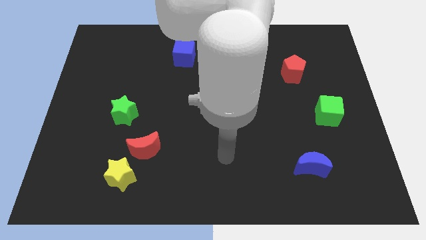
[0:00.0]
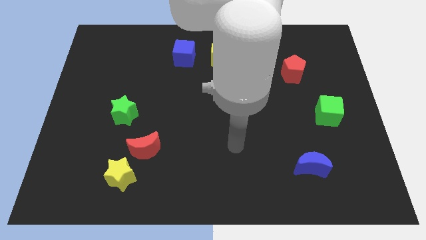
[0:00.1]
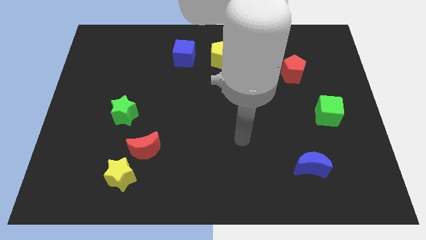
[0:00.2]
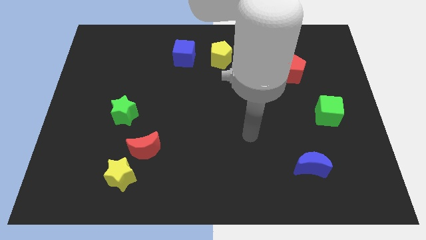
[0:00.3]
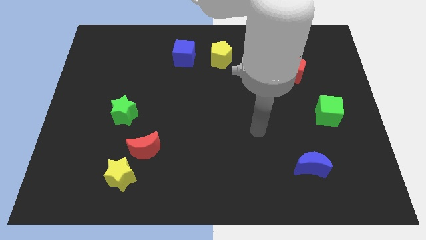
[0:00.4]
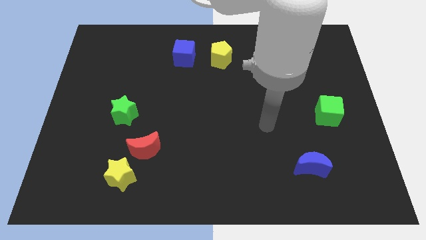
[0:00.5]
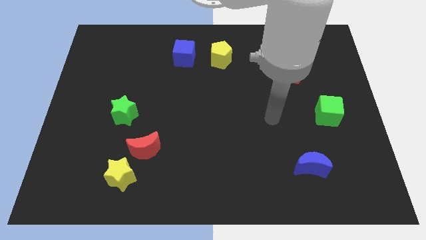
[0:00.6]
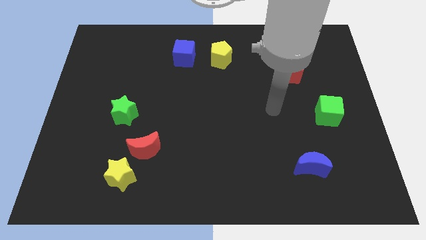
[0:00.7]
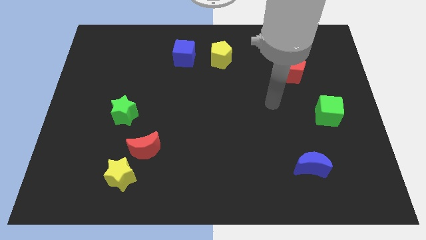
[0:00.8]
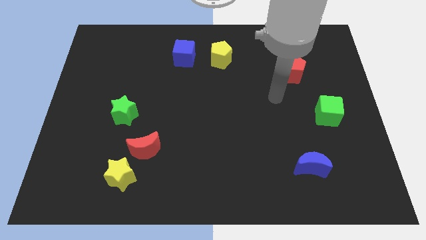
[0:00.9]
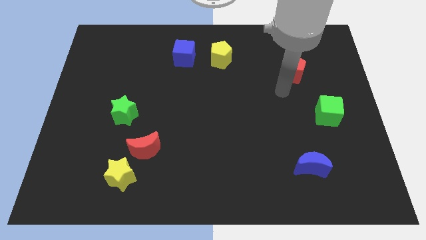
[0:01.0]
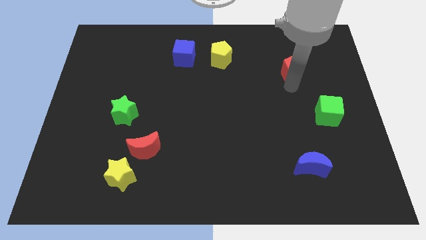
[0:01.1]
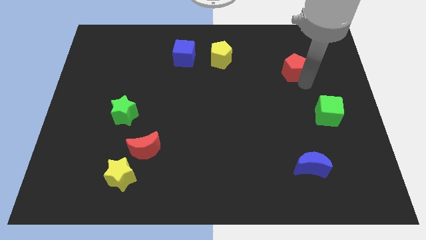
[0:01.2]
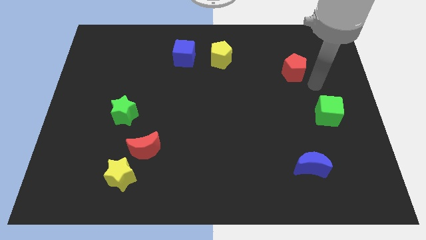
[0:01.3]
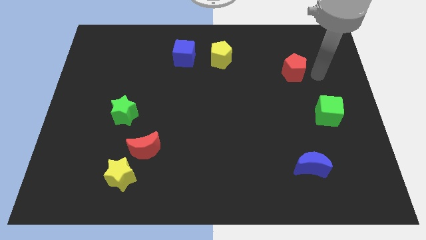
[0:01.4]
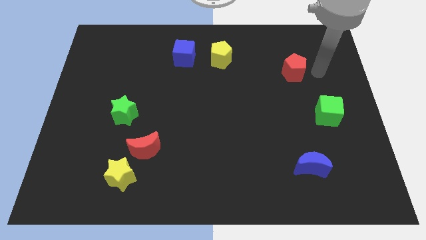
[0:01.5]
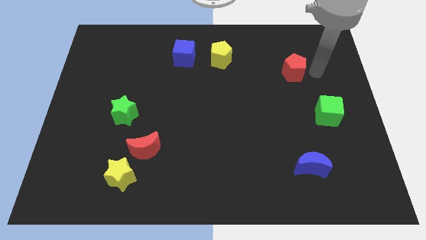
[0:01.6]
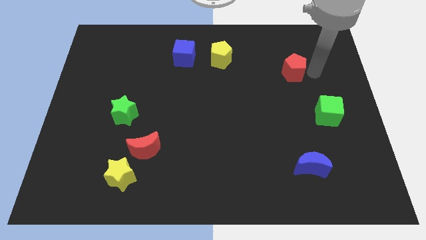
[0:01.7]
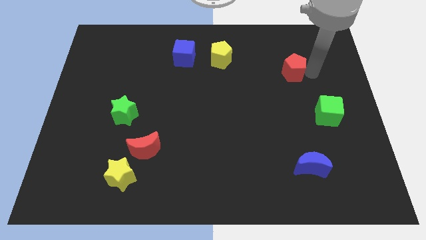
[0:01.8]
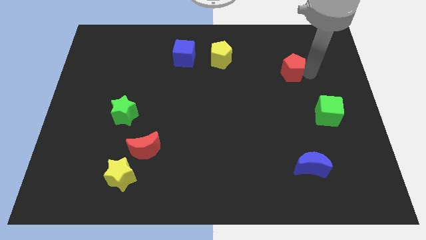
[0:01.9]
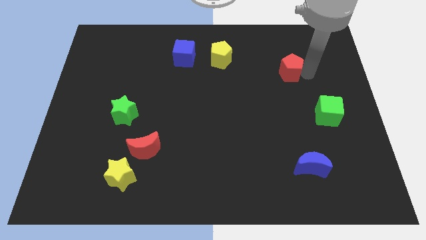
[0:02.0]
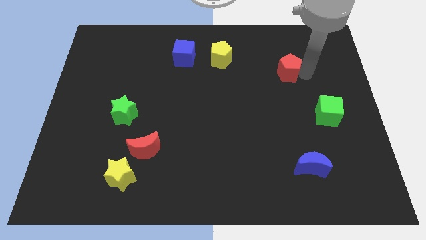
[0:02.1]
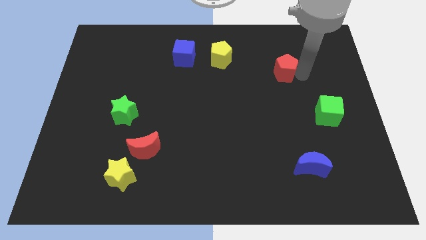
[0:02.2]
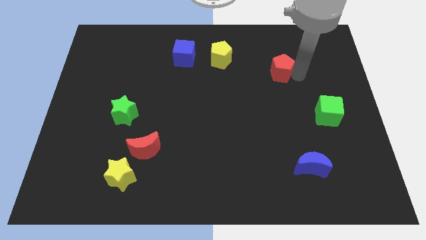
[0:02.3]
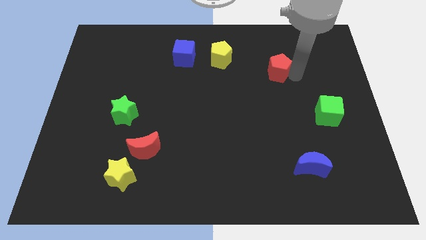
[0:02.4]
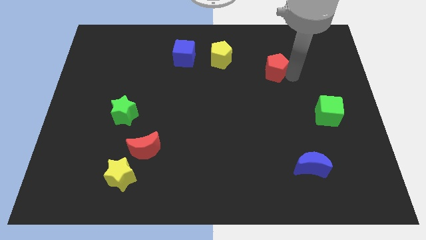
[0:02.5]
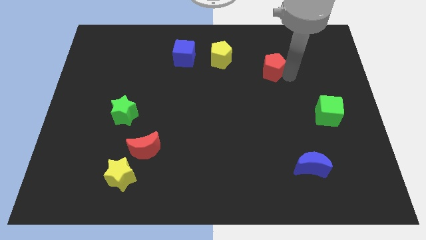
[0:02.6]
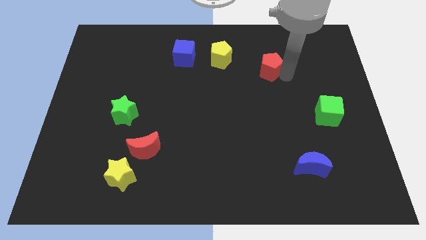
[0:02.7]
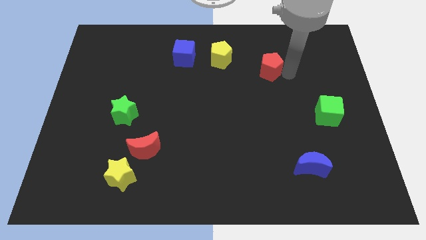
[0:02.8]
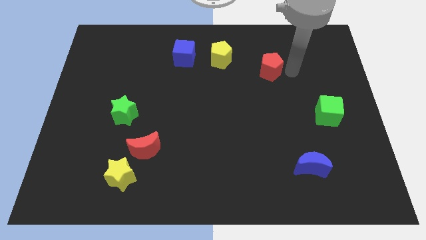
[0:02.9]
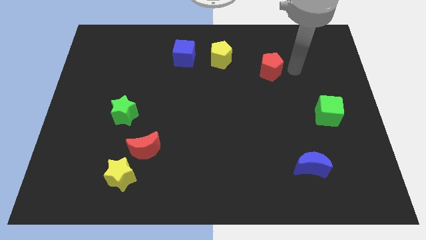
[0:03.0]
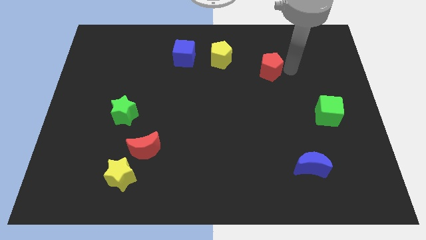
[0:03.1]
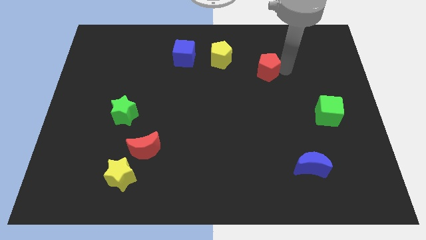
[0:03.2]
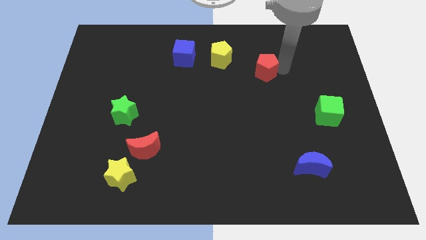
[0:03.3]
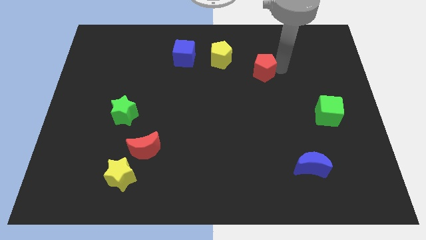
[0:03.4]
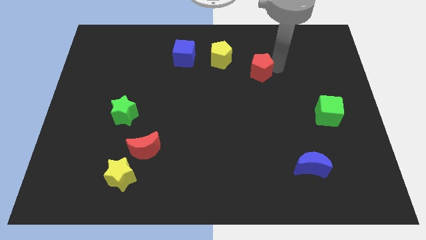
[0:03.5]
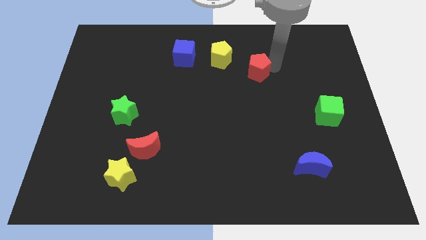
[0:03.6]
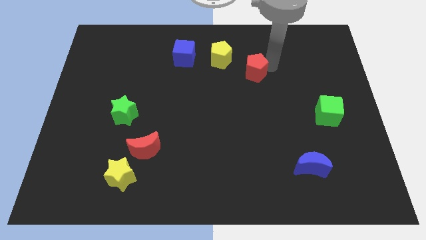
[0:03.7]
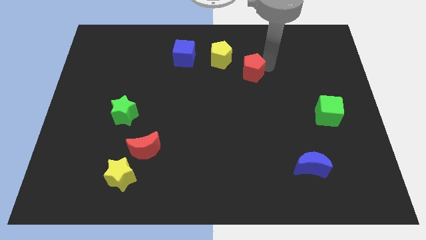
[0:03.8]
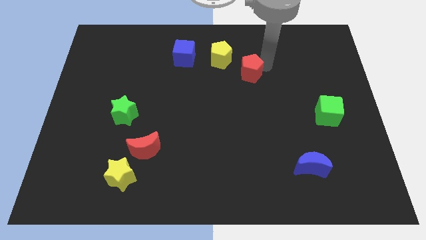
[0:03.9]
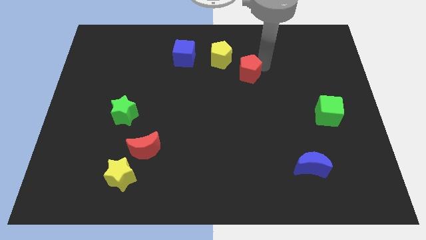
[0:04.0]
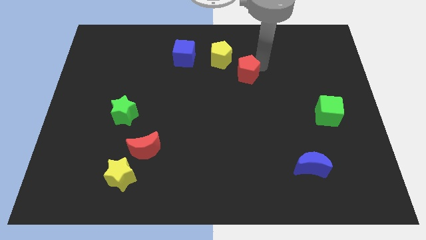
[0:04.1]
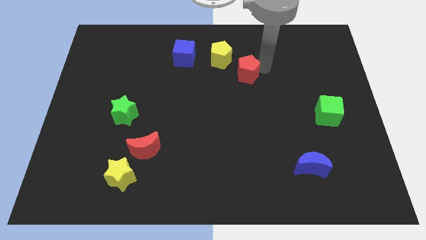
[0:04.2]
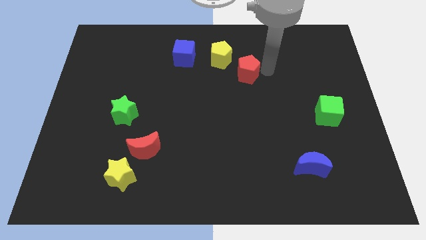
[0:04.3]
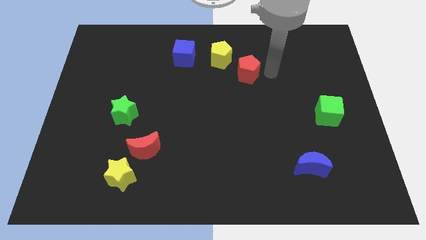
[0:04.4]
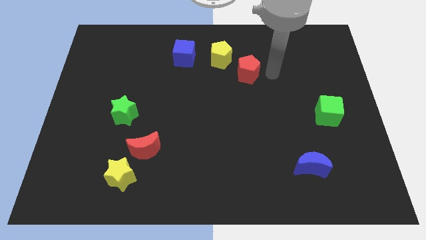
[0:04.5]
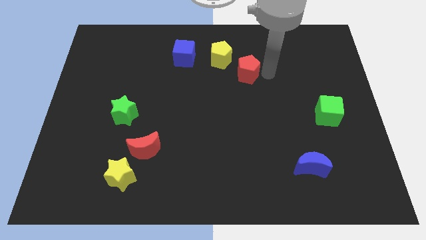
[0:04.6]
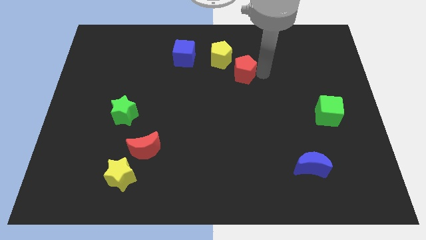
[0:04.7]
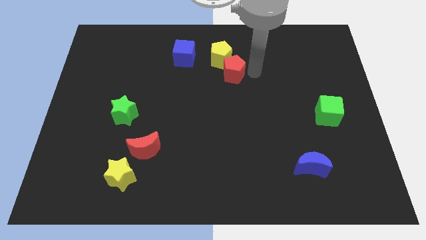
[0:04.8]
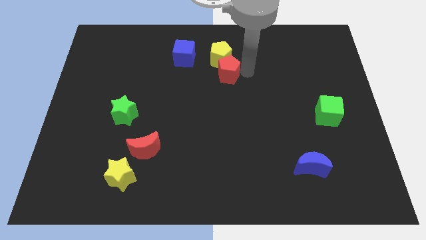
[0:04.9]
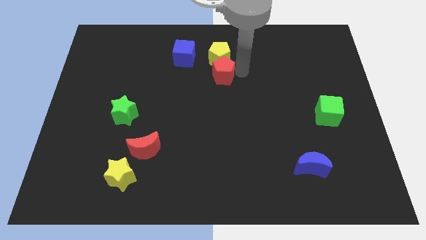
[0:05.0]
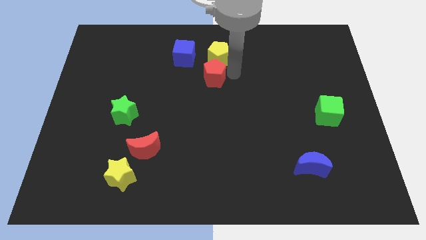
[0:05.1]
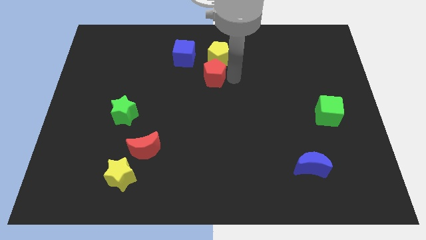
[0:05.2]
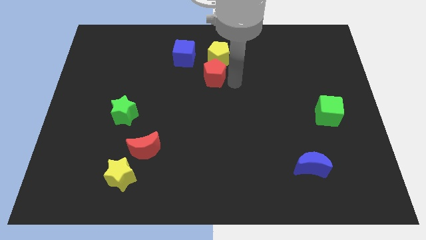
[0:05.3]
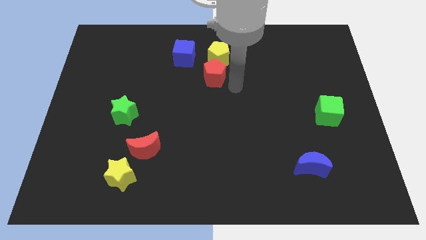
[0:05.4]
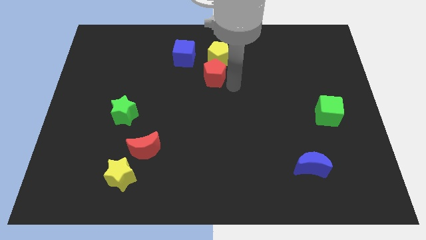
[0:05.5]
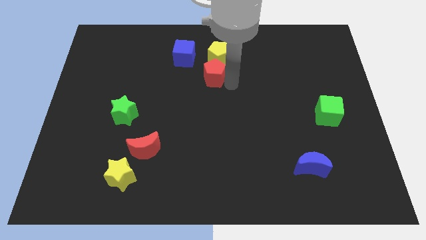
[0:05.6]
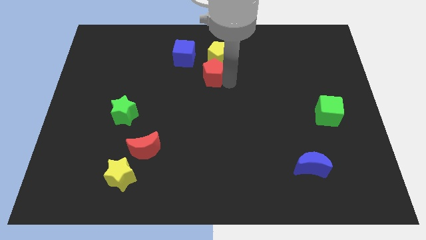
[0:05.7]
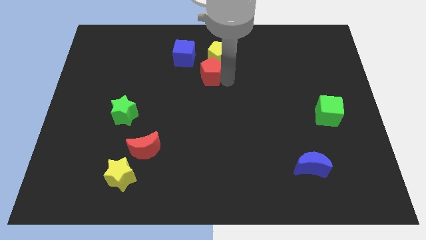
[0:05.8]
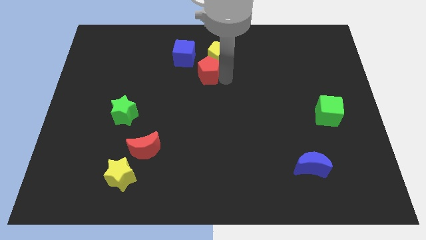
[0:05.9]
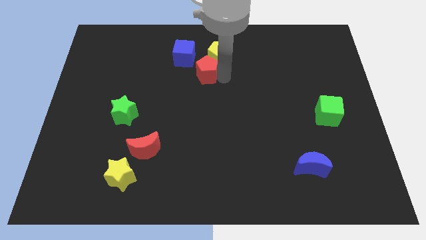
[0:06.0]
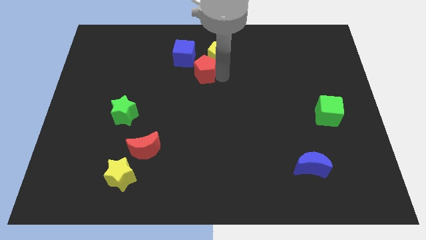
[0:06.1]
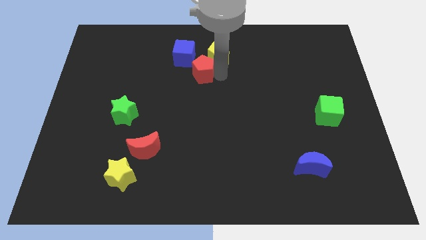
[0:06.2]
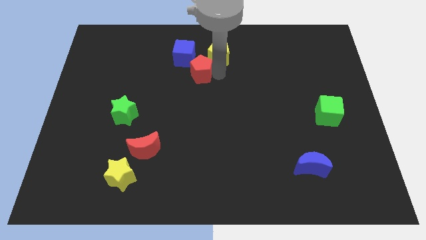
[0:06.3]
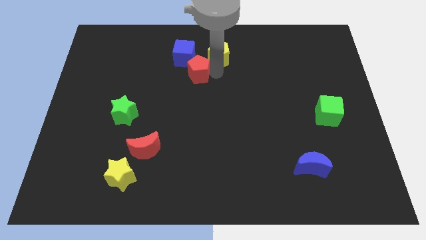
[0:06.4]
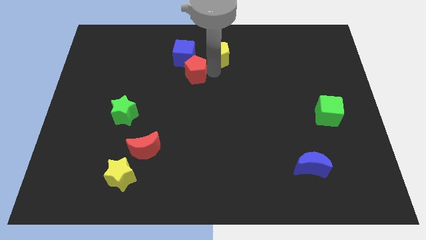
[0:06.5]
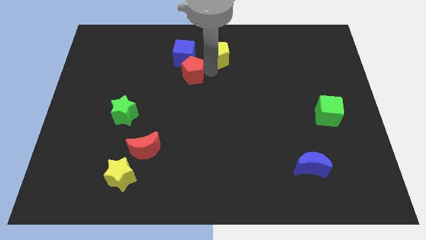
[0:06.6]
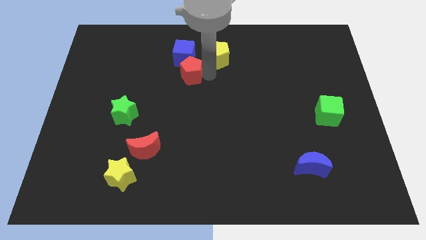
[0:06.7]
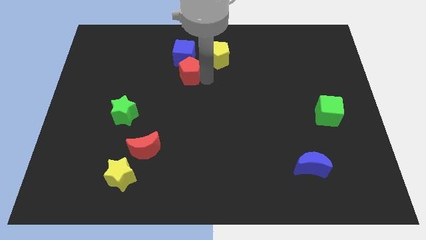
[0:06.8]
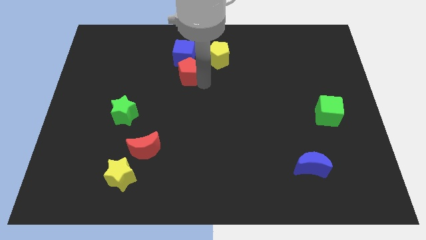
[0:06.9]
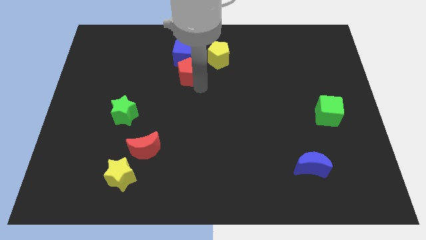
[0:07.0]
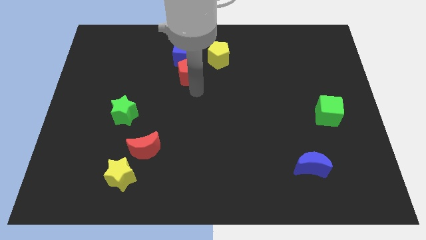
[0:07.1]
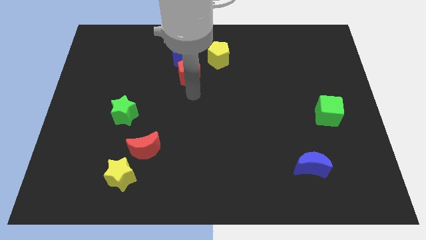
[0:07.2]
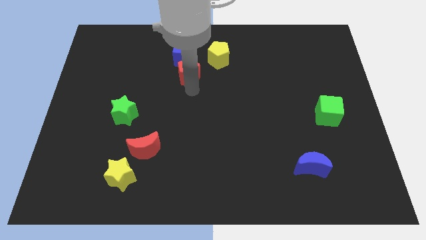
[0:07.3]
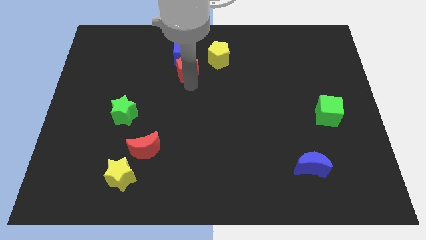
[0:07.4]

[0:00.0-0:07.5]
move the red pentagon to the blue cube
